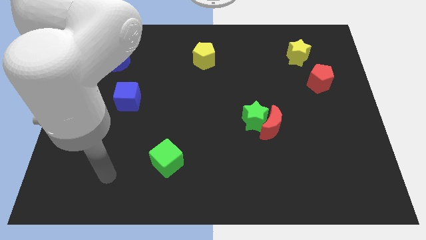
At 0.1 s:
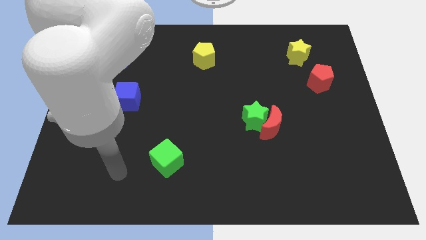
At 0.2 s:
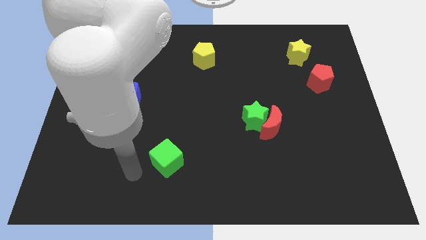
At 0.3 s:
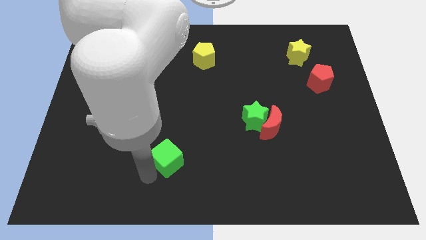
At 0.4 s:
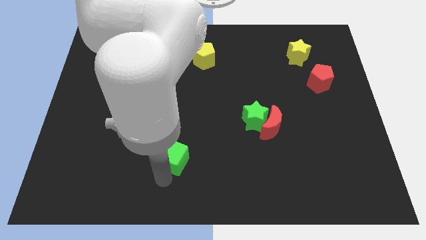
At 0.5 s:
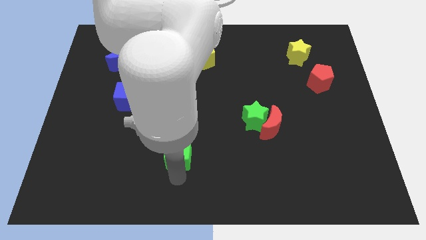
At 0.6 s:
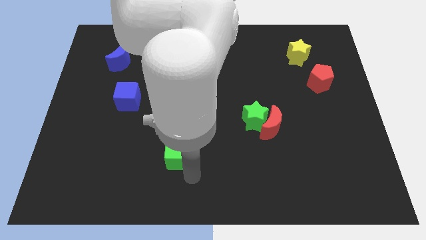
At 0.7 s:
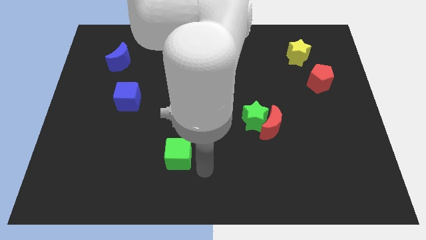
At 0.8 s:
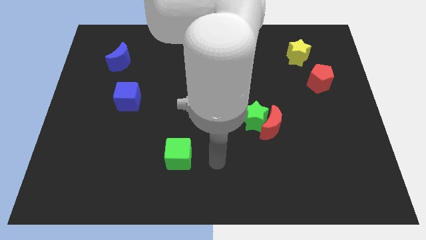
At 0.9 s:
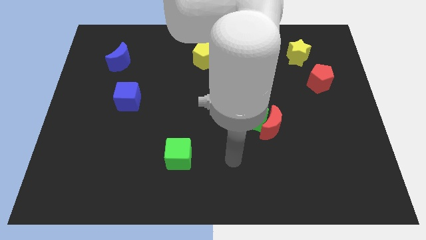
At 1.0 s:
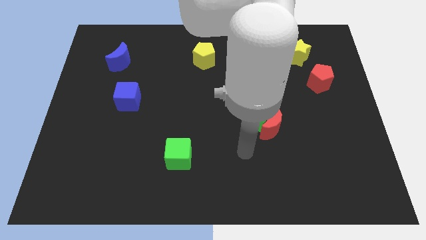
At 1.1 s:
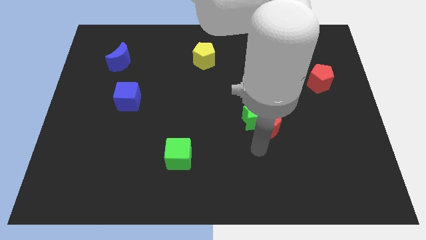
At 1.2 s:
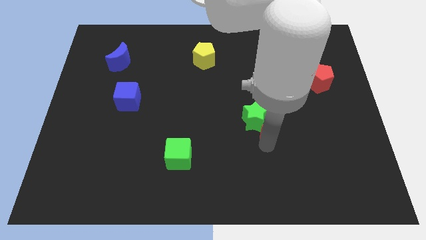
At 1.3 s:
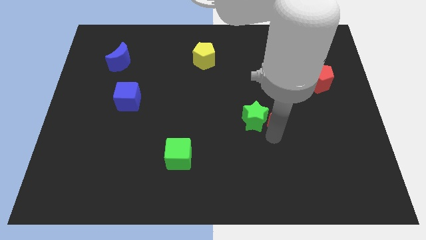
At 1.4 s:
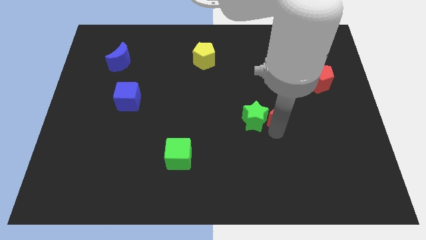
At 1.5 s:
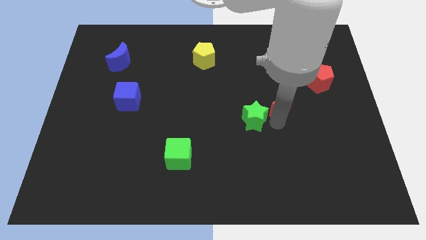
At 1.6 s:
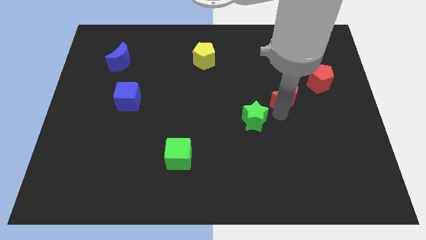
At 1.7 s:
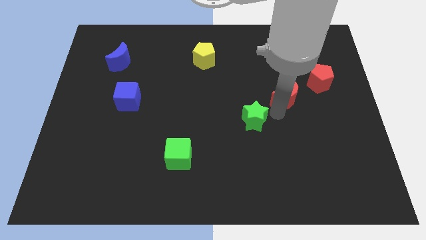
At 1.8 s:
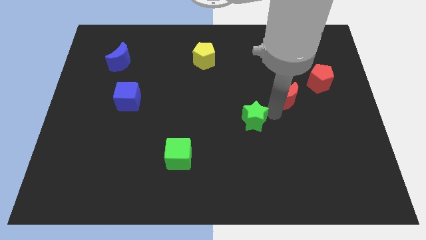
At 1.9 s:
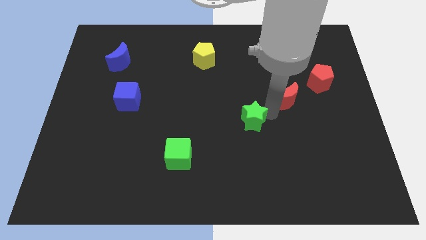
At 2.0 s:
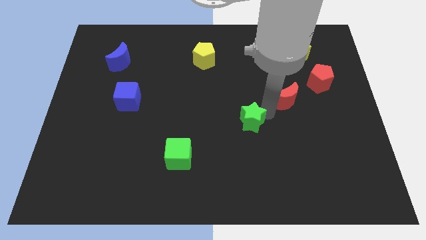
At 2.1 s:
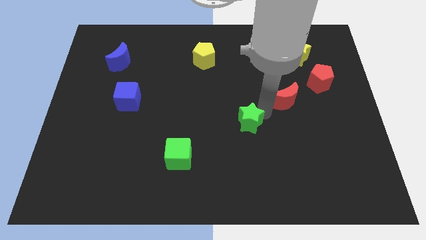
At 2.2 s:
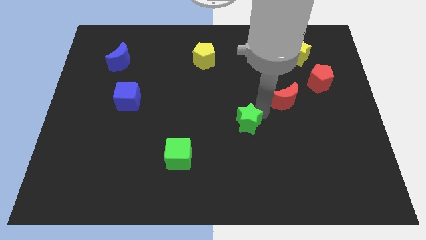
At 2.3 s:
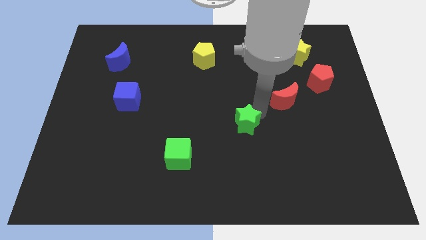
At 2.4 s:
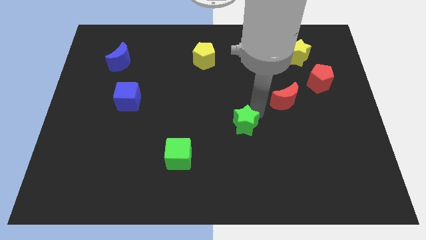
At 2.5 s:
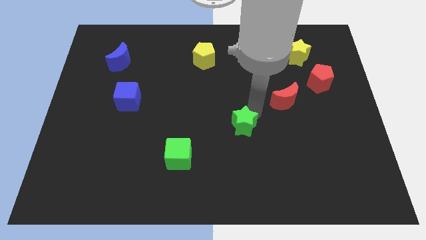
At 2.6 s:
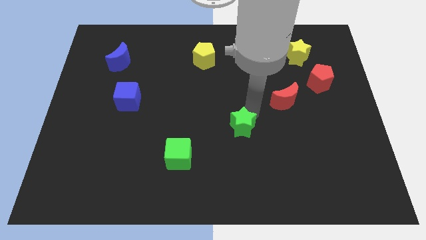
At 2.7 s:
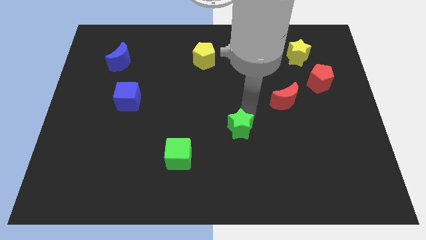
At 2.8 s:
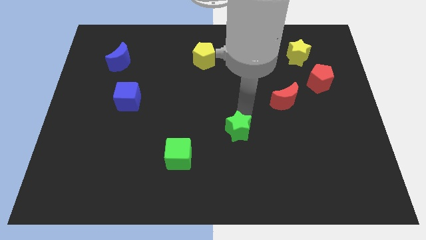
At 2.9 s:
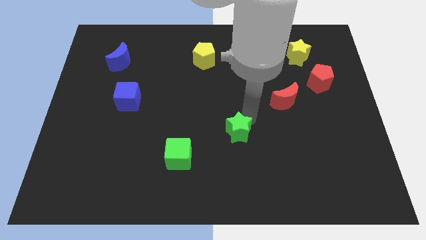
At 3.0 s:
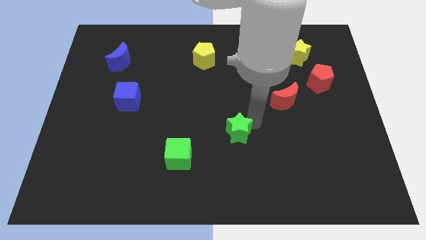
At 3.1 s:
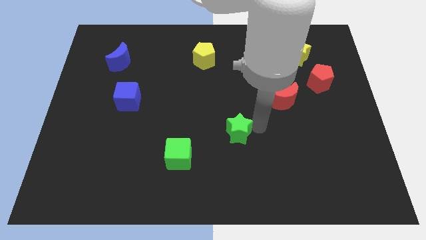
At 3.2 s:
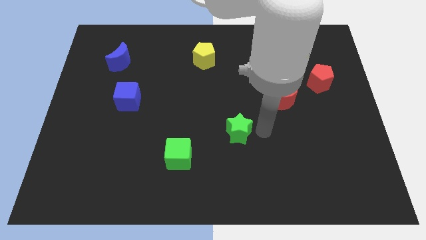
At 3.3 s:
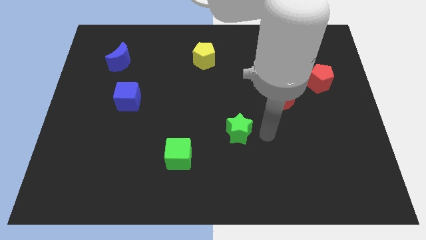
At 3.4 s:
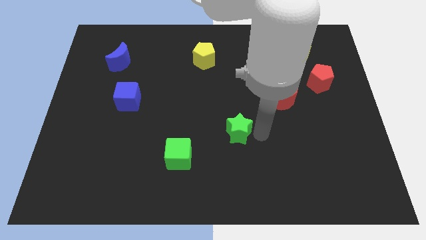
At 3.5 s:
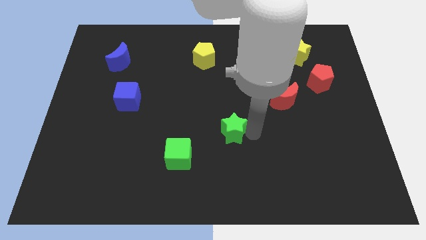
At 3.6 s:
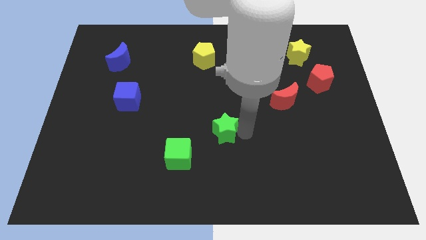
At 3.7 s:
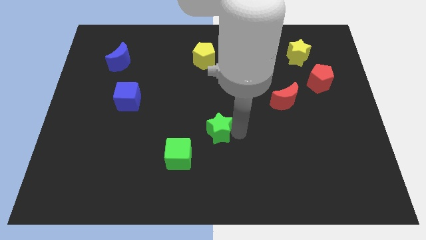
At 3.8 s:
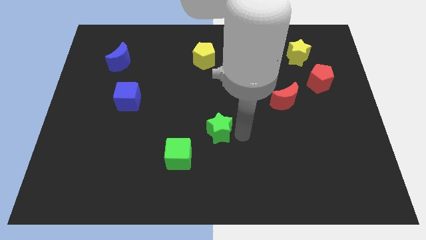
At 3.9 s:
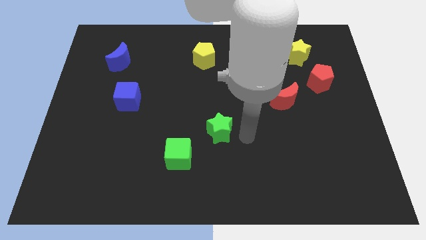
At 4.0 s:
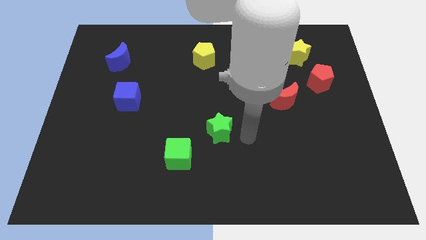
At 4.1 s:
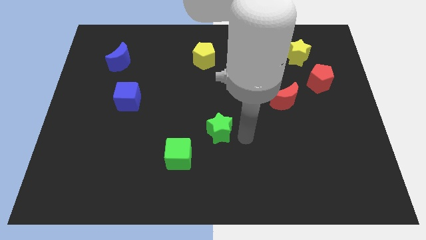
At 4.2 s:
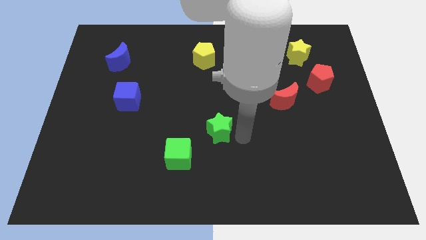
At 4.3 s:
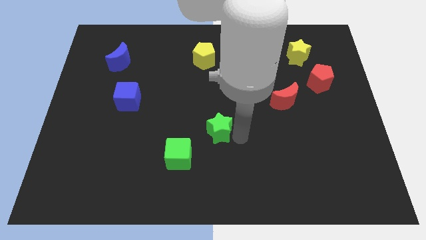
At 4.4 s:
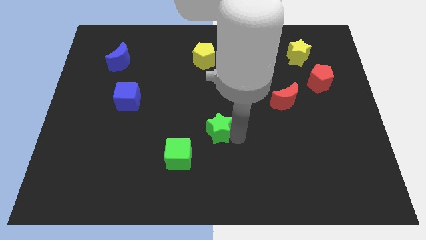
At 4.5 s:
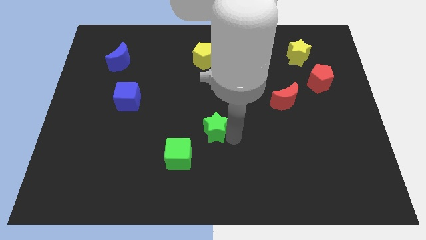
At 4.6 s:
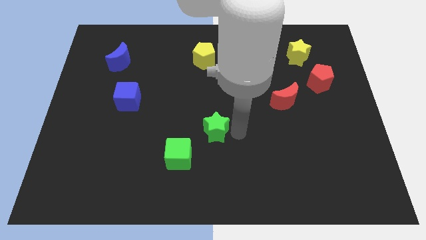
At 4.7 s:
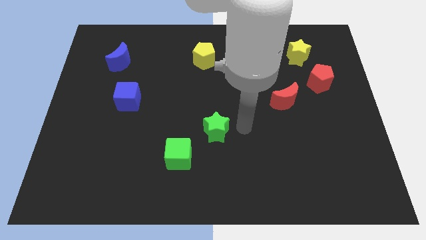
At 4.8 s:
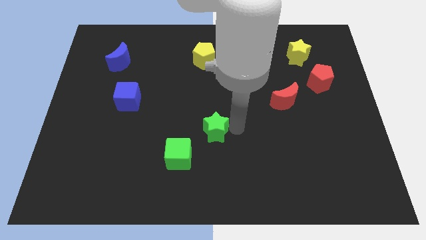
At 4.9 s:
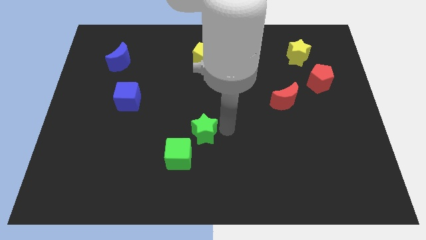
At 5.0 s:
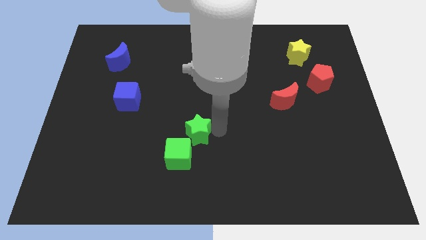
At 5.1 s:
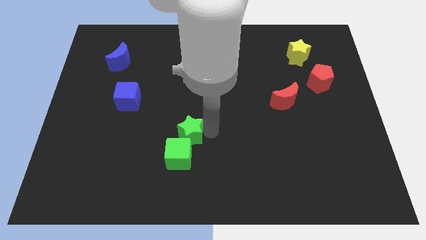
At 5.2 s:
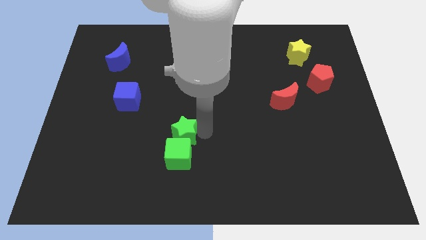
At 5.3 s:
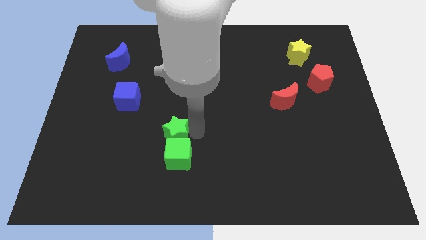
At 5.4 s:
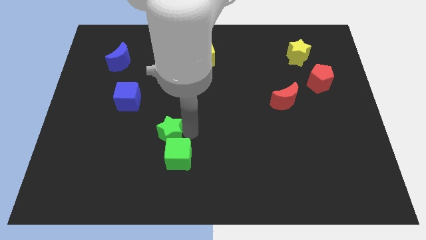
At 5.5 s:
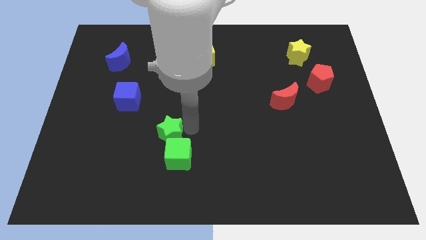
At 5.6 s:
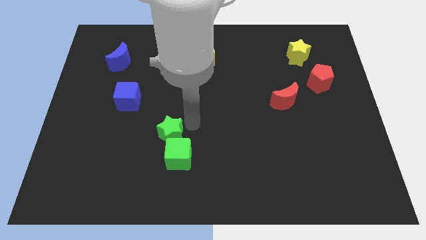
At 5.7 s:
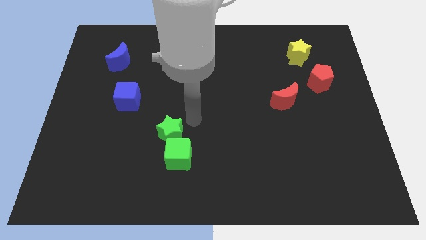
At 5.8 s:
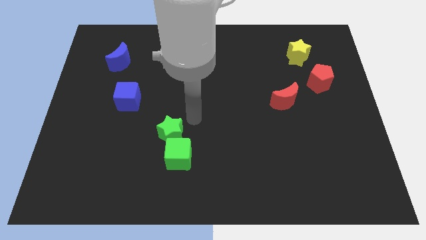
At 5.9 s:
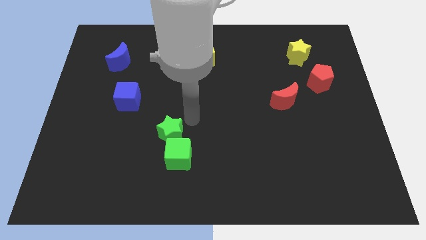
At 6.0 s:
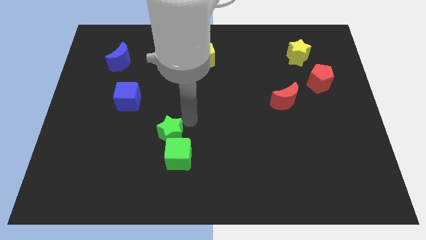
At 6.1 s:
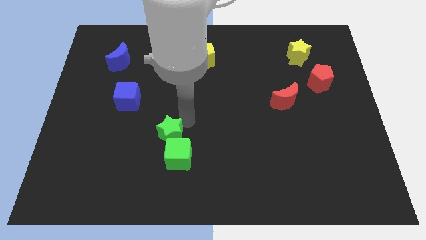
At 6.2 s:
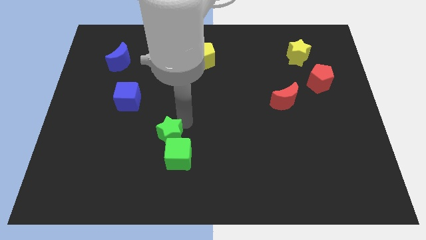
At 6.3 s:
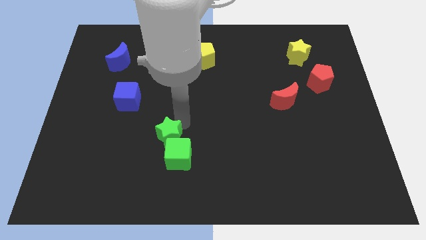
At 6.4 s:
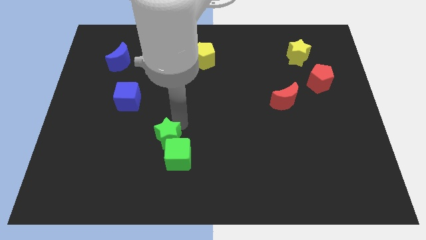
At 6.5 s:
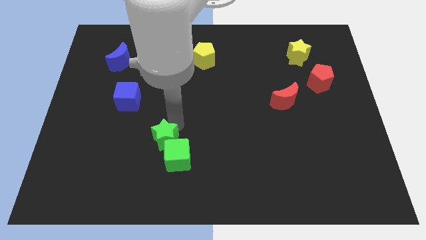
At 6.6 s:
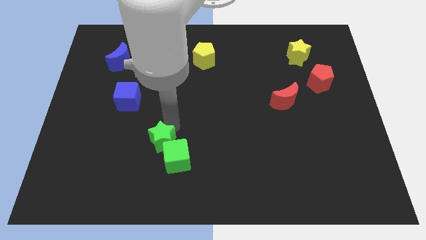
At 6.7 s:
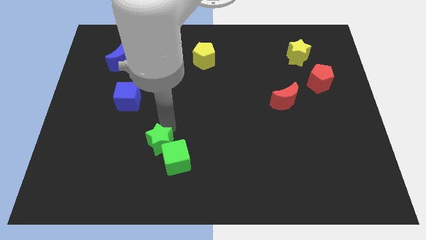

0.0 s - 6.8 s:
put the green star left of the green cube

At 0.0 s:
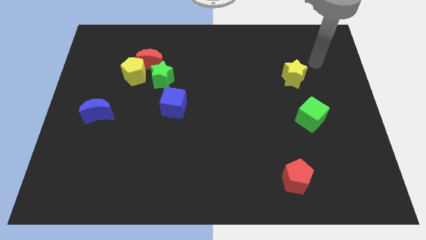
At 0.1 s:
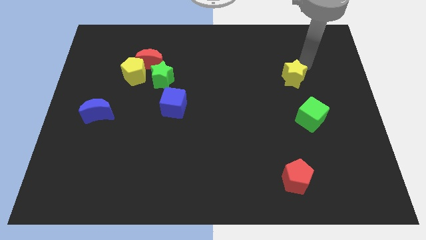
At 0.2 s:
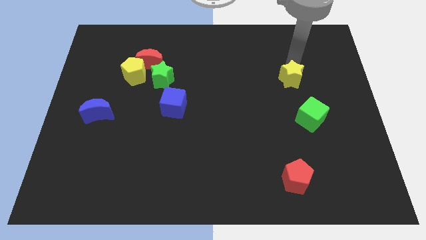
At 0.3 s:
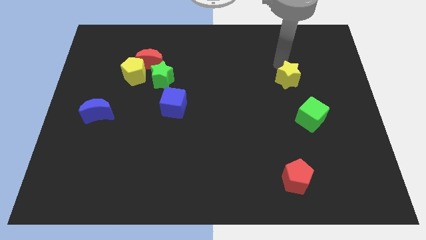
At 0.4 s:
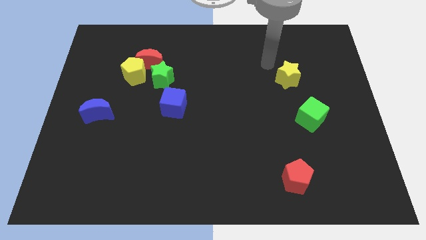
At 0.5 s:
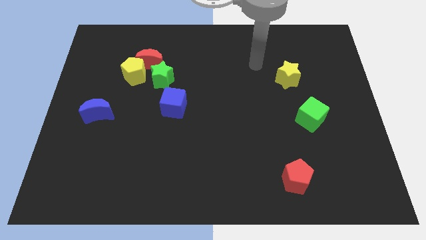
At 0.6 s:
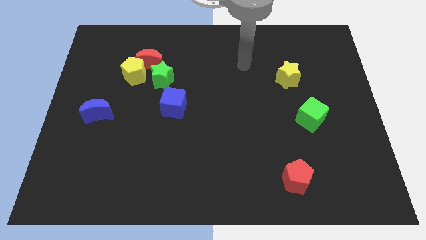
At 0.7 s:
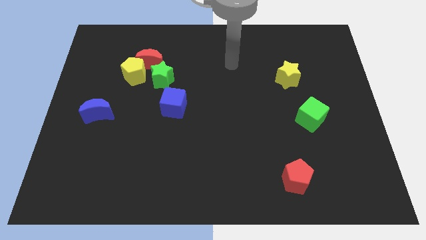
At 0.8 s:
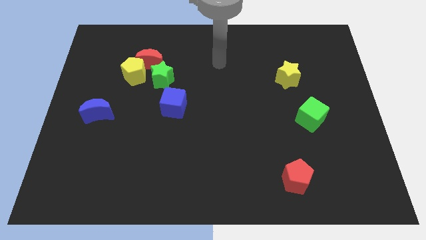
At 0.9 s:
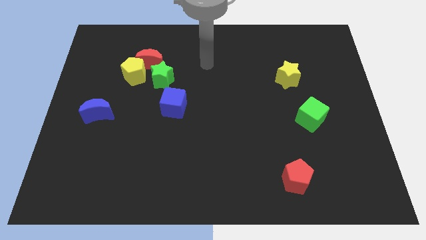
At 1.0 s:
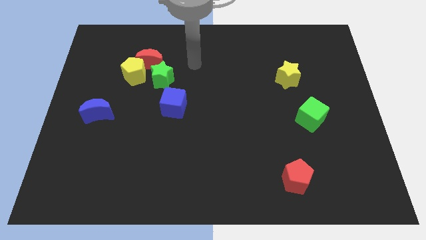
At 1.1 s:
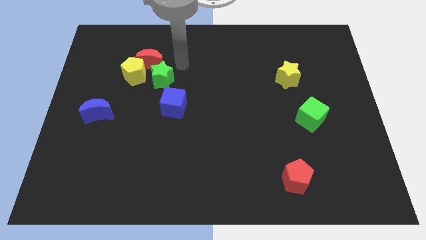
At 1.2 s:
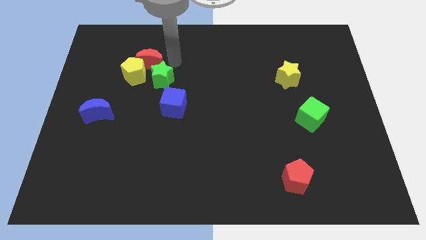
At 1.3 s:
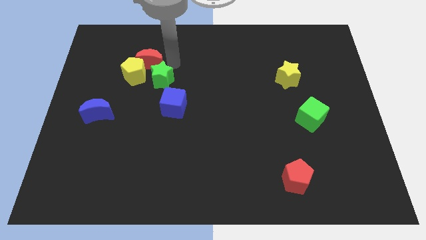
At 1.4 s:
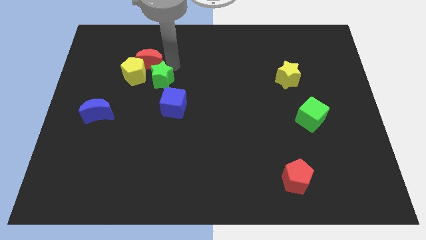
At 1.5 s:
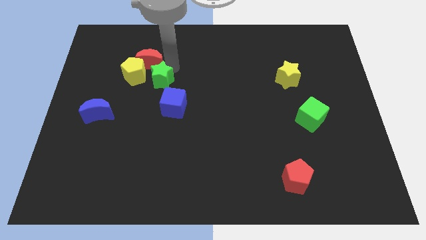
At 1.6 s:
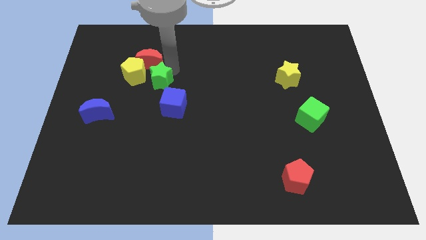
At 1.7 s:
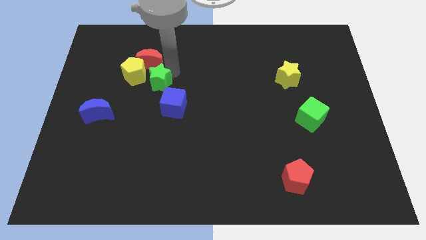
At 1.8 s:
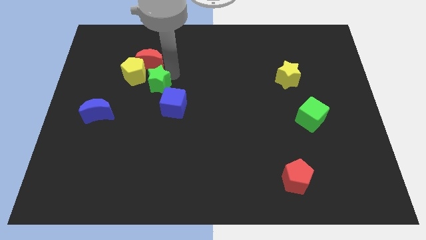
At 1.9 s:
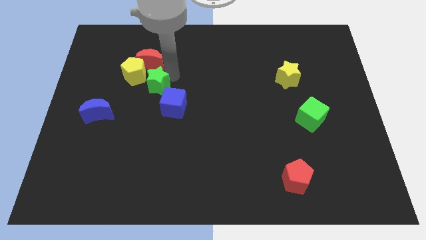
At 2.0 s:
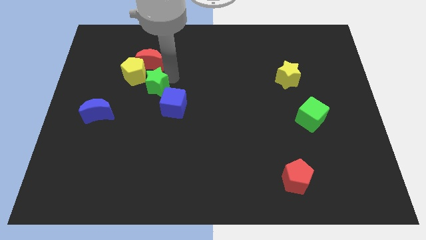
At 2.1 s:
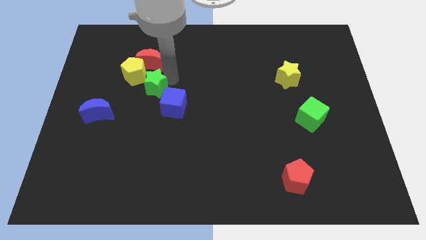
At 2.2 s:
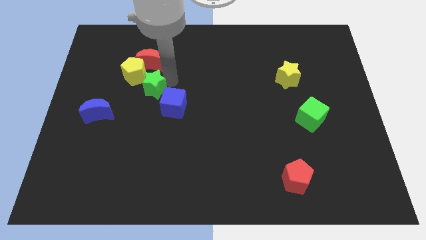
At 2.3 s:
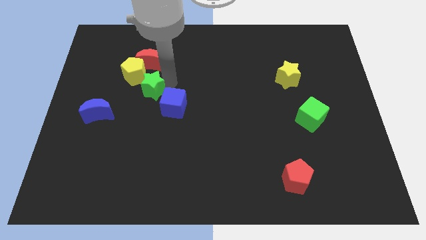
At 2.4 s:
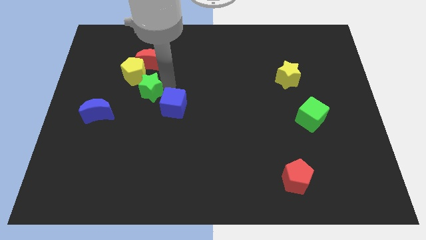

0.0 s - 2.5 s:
push the green star to the bottom of the yellow pentagon
